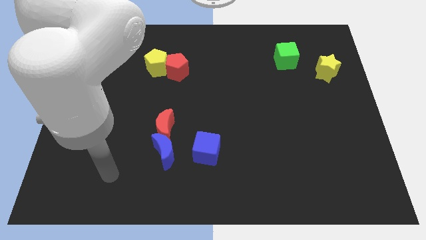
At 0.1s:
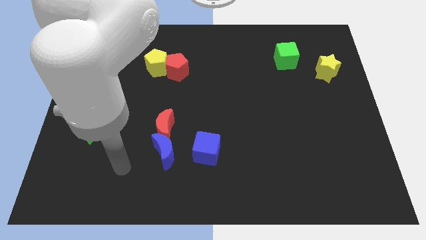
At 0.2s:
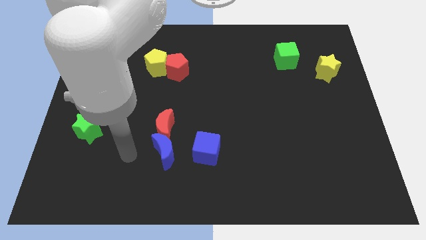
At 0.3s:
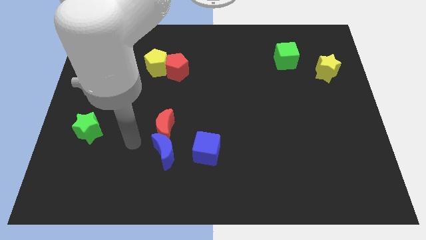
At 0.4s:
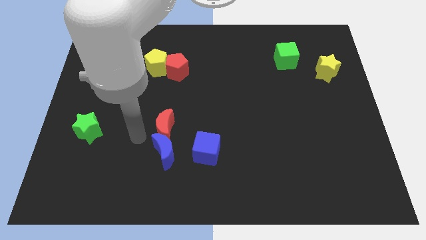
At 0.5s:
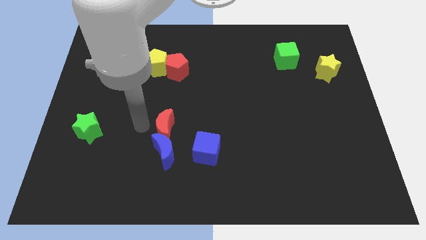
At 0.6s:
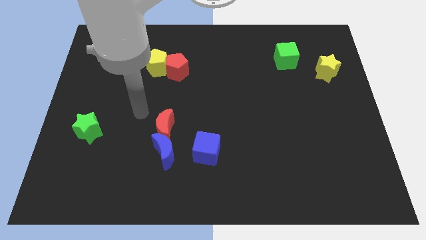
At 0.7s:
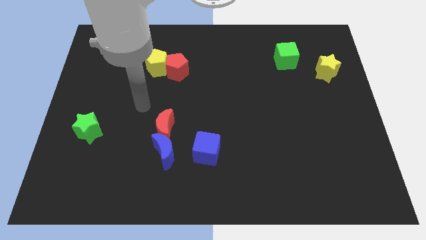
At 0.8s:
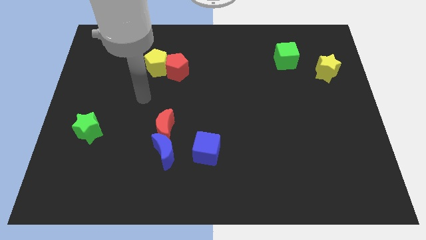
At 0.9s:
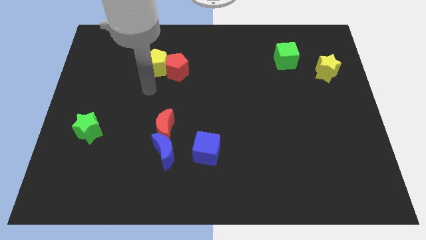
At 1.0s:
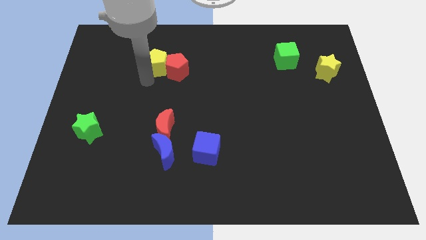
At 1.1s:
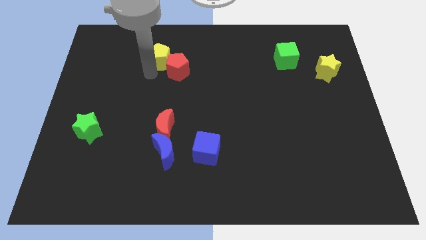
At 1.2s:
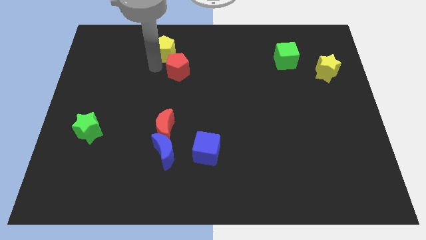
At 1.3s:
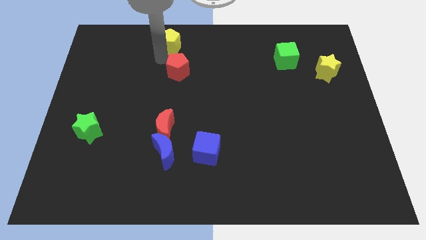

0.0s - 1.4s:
move the red pentagon away from the yellow pentagon

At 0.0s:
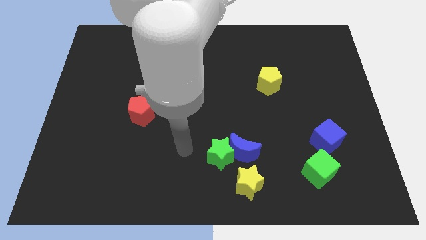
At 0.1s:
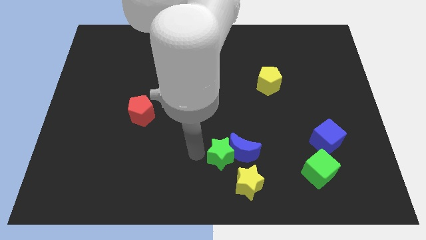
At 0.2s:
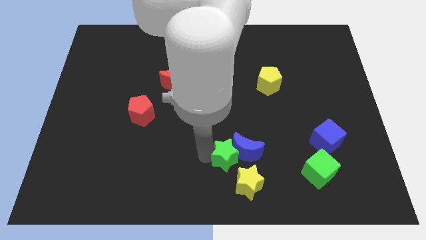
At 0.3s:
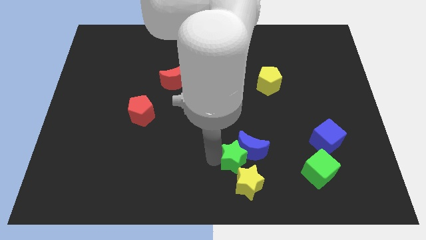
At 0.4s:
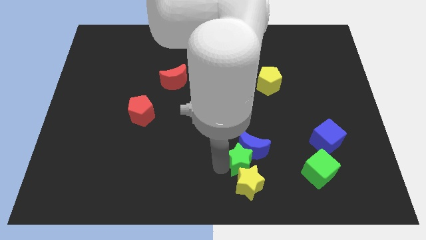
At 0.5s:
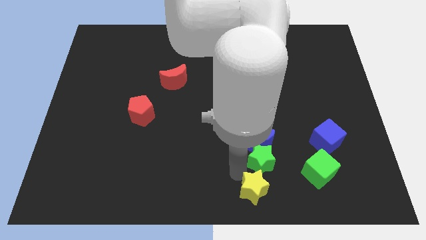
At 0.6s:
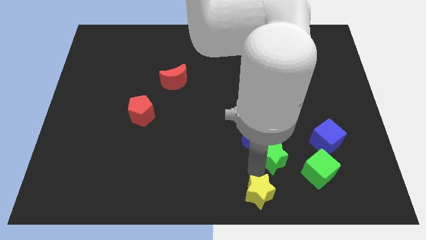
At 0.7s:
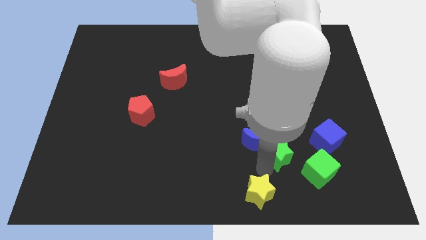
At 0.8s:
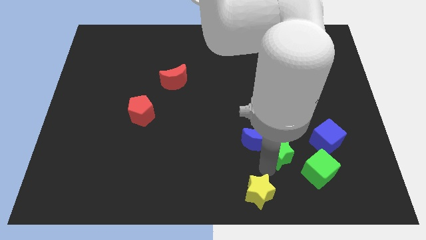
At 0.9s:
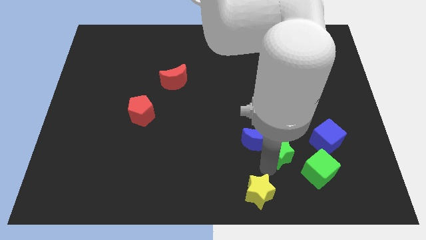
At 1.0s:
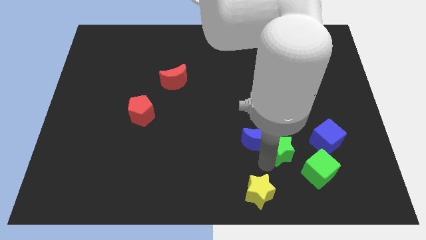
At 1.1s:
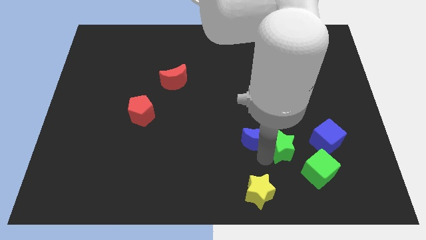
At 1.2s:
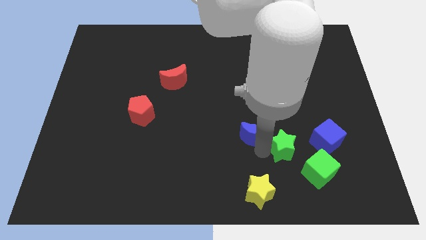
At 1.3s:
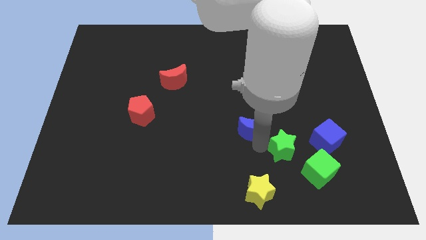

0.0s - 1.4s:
separate the blue moon from the green star and yellow star

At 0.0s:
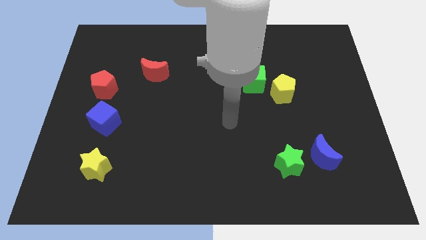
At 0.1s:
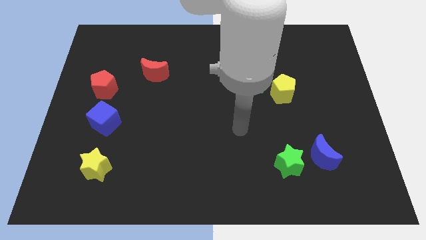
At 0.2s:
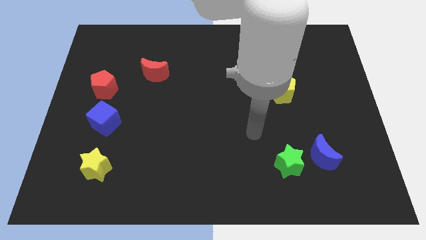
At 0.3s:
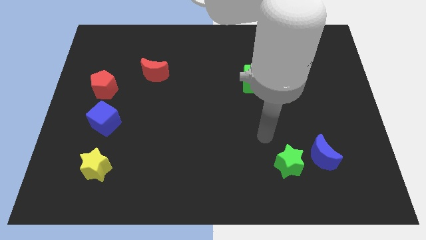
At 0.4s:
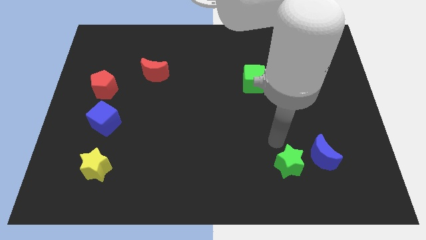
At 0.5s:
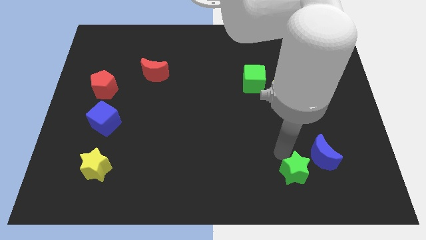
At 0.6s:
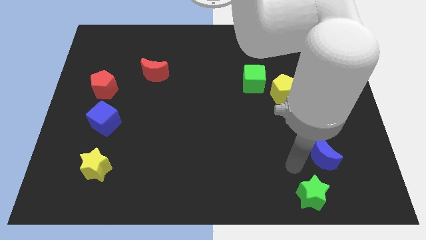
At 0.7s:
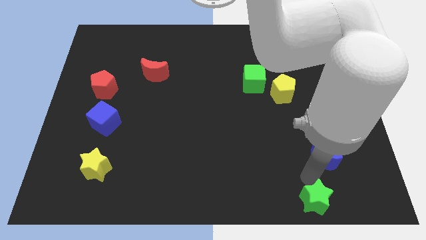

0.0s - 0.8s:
move the blue moon away from the green star

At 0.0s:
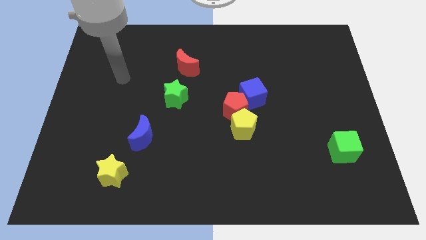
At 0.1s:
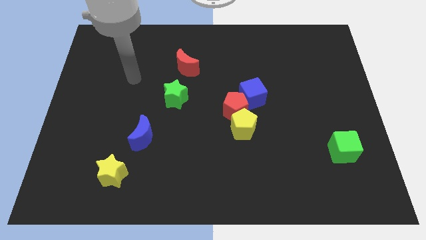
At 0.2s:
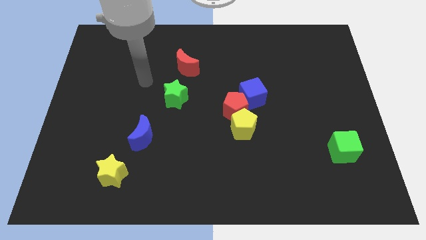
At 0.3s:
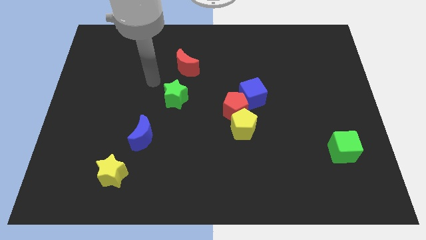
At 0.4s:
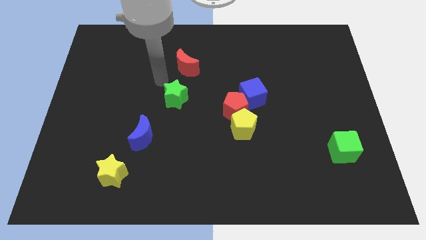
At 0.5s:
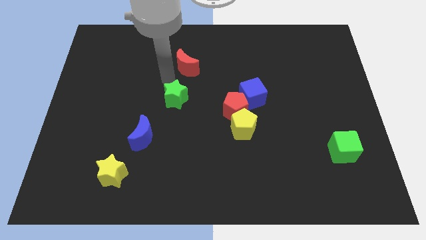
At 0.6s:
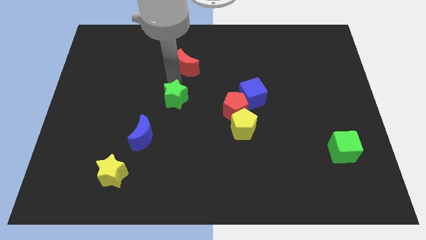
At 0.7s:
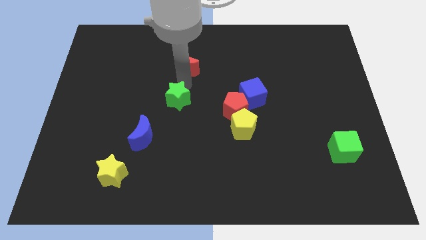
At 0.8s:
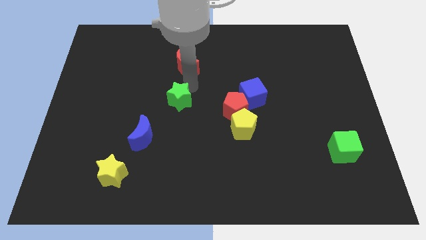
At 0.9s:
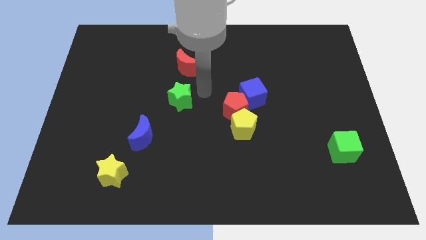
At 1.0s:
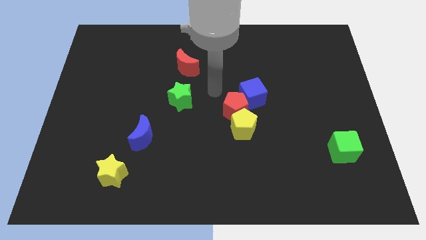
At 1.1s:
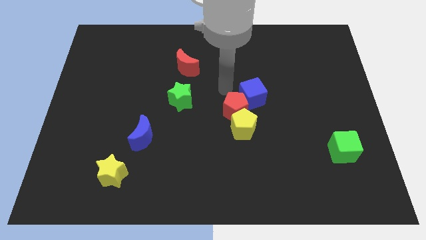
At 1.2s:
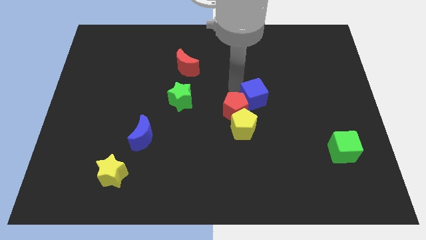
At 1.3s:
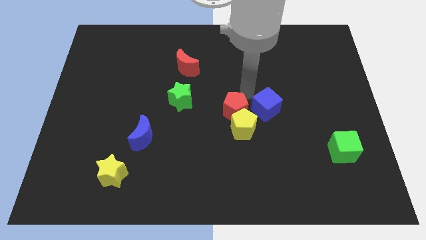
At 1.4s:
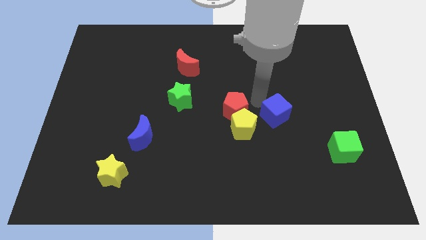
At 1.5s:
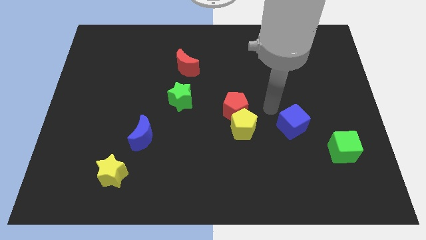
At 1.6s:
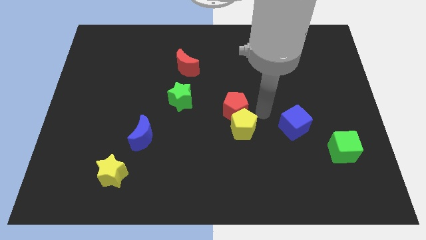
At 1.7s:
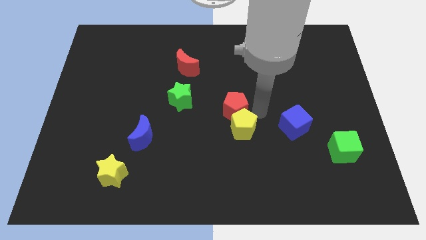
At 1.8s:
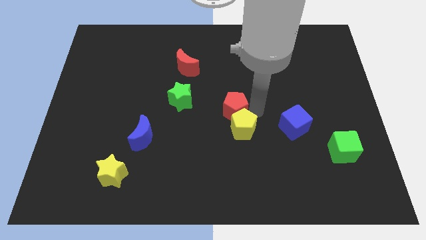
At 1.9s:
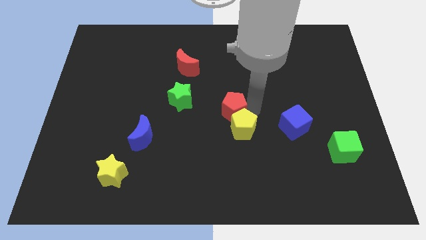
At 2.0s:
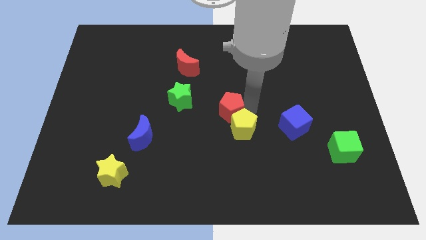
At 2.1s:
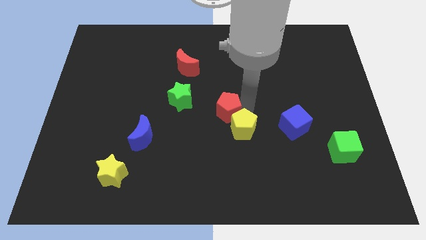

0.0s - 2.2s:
move the red pentagon away from the yellow pentagon and blue cube

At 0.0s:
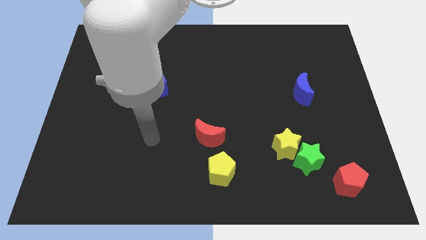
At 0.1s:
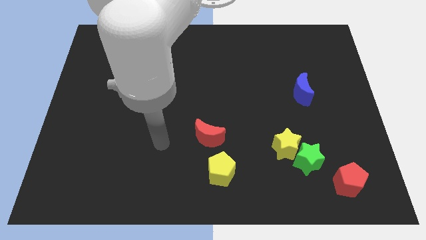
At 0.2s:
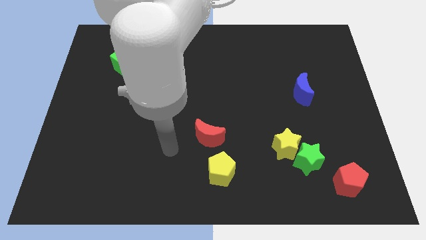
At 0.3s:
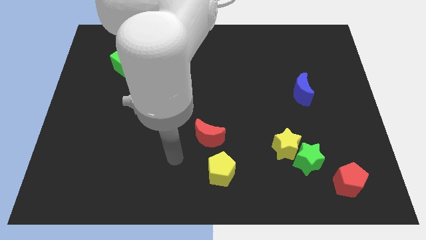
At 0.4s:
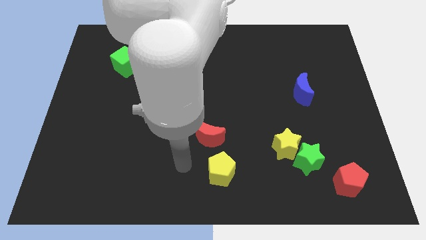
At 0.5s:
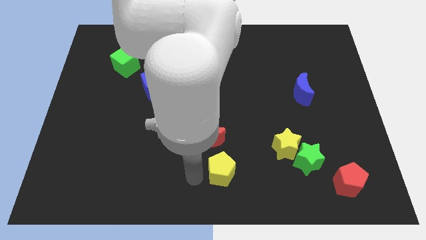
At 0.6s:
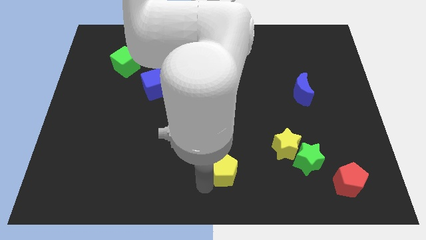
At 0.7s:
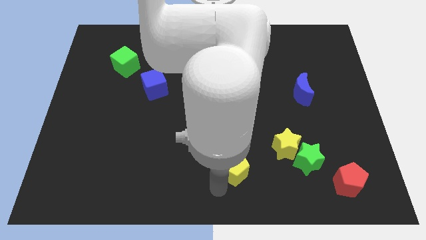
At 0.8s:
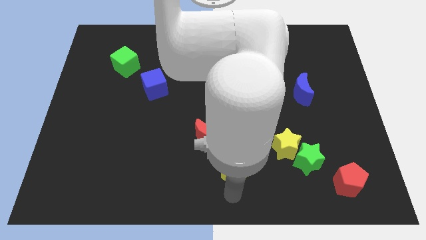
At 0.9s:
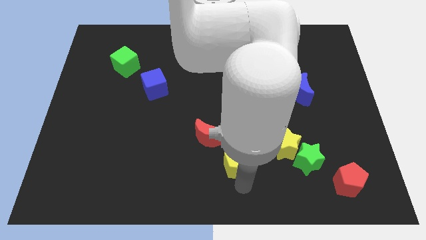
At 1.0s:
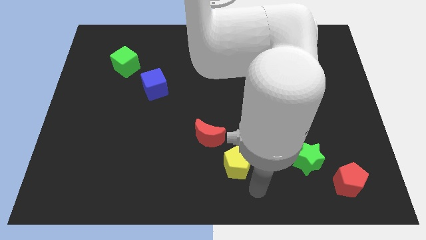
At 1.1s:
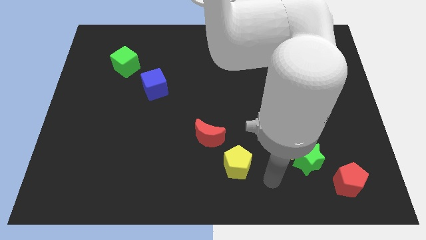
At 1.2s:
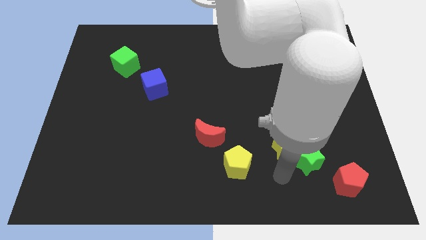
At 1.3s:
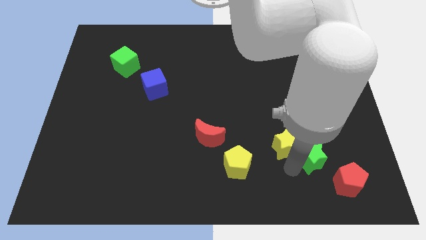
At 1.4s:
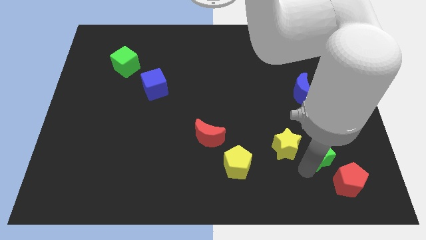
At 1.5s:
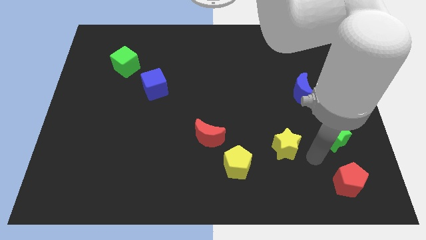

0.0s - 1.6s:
pull the yellow star apart from the green star

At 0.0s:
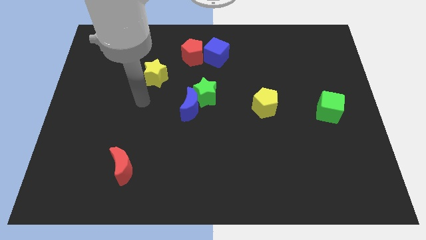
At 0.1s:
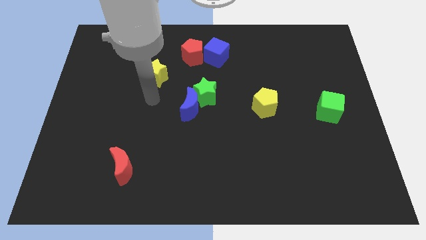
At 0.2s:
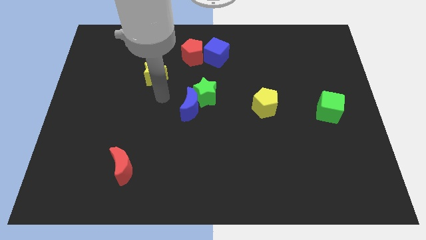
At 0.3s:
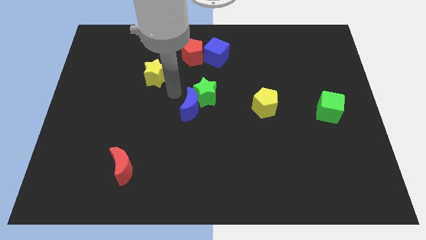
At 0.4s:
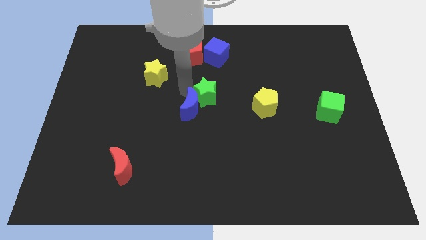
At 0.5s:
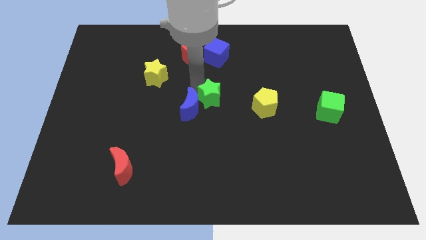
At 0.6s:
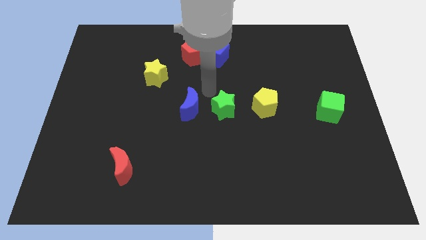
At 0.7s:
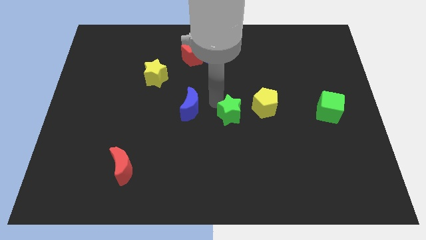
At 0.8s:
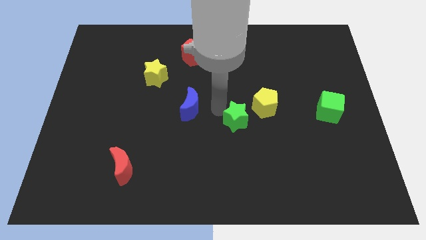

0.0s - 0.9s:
pull the blue moon apart from the green star

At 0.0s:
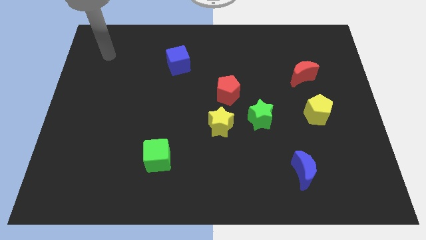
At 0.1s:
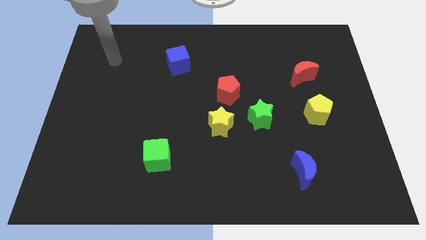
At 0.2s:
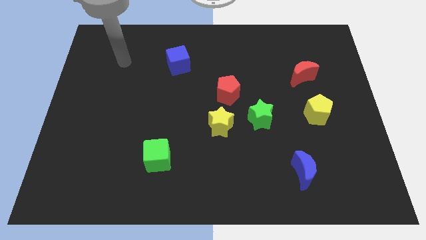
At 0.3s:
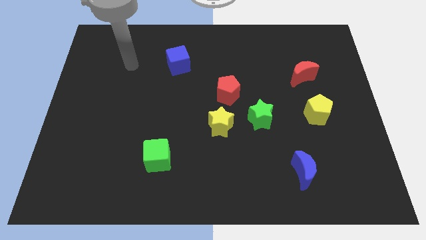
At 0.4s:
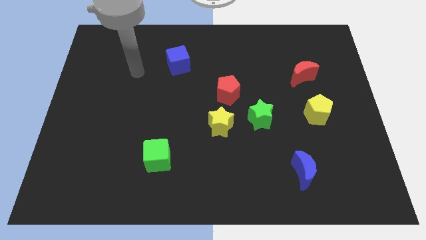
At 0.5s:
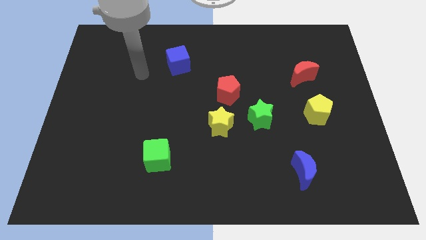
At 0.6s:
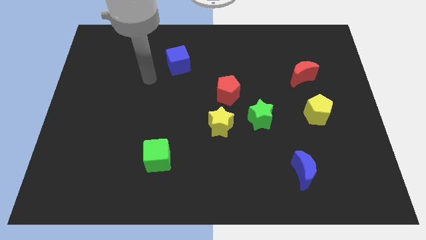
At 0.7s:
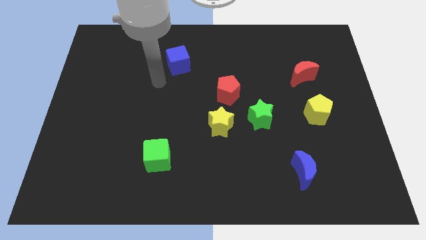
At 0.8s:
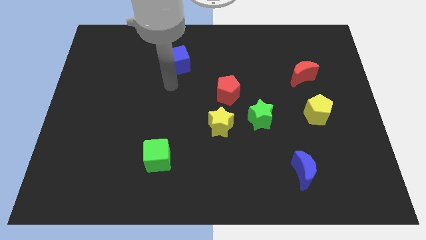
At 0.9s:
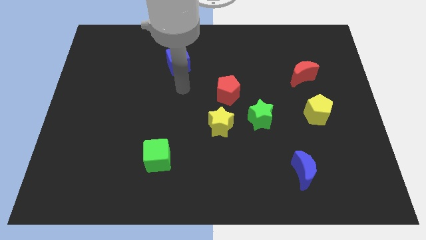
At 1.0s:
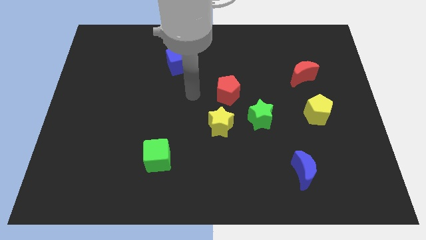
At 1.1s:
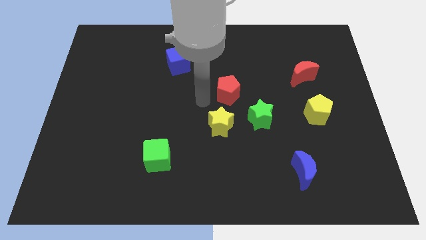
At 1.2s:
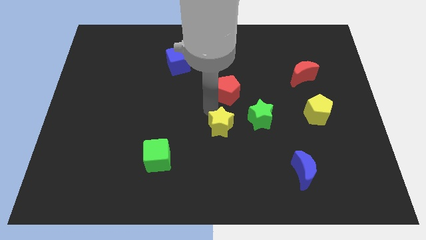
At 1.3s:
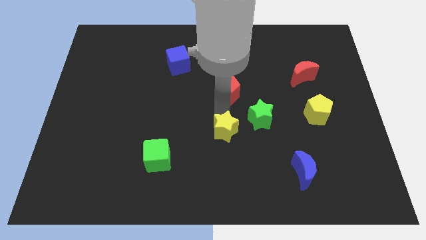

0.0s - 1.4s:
move the red pentagon away from the yellow star
